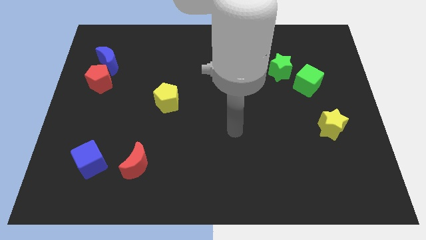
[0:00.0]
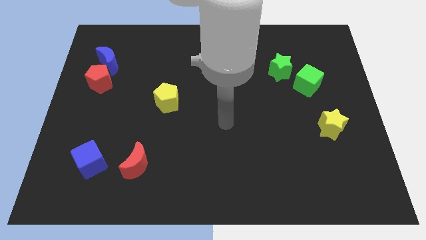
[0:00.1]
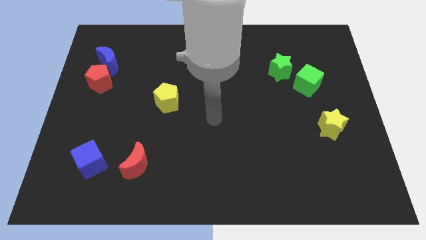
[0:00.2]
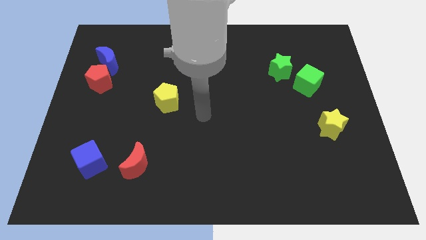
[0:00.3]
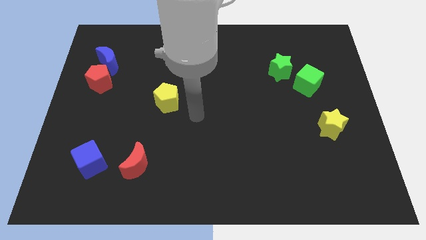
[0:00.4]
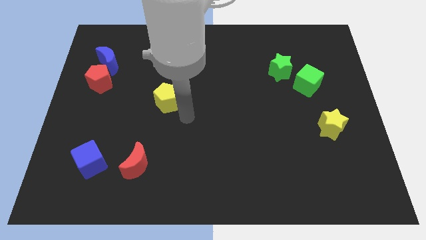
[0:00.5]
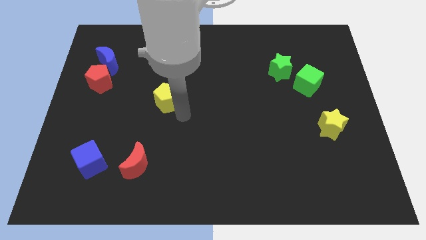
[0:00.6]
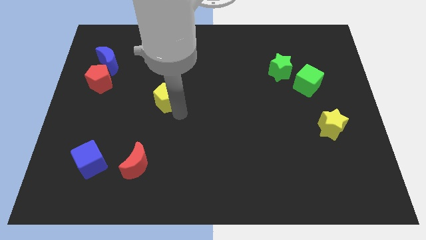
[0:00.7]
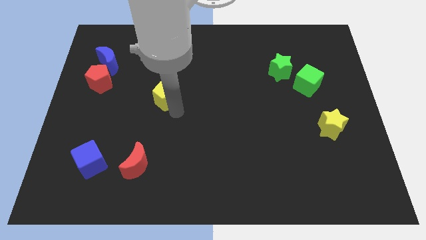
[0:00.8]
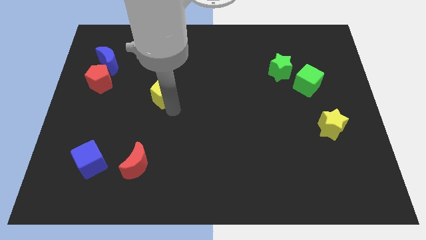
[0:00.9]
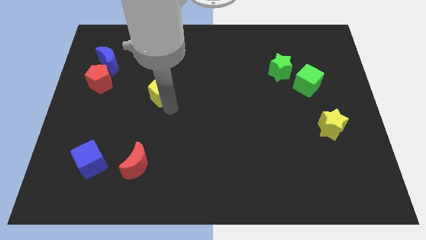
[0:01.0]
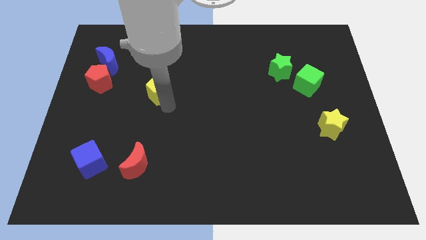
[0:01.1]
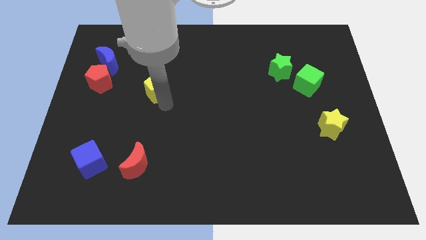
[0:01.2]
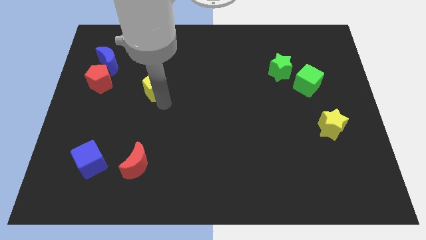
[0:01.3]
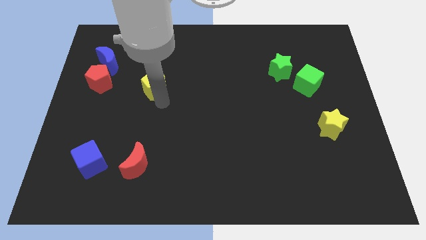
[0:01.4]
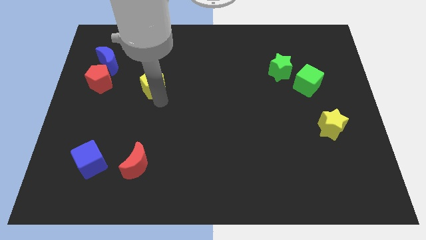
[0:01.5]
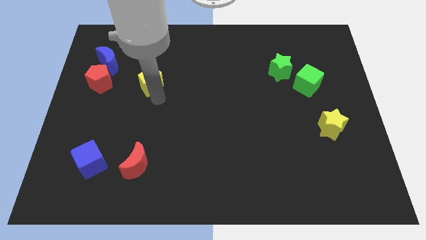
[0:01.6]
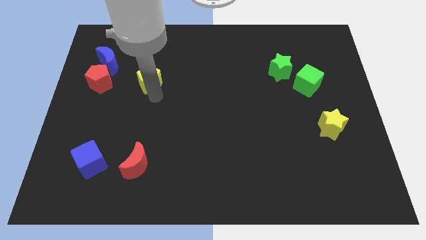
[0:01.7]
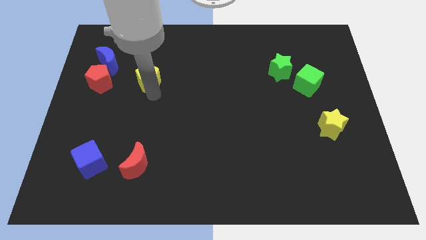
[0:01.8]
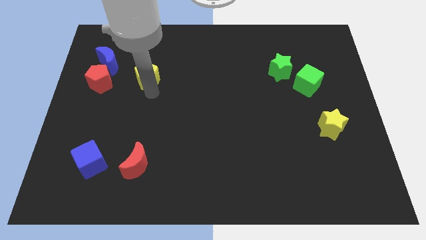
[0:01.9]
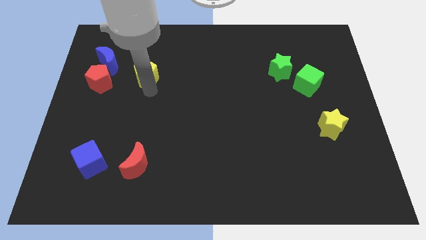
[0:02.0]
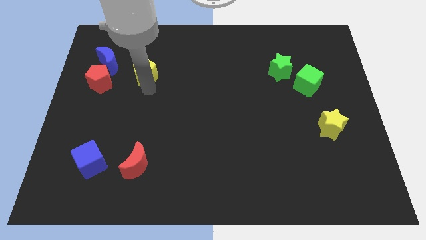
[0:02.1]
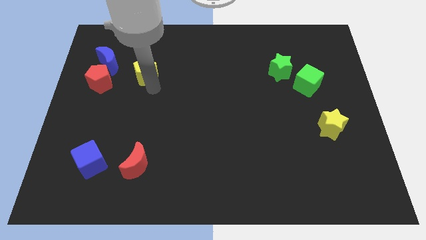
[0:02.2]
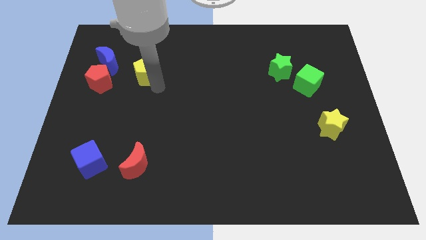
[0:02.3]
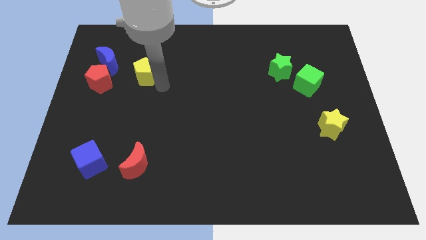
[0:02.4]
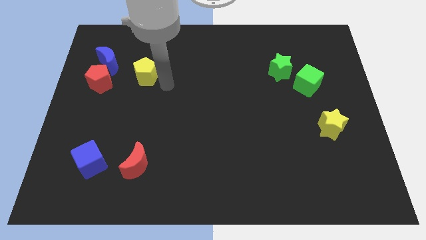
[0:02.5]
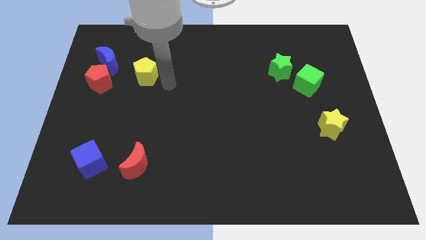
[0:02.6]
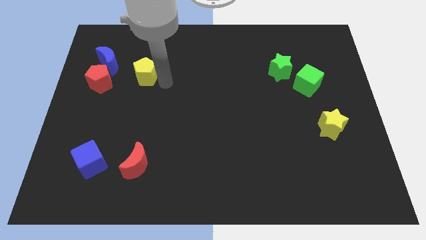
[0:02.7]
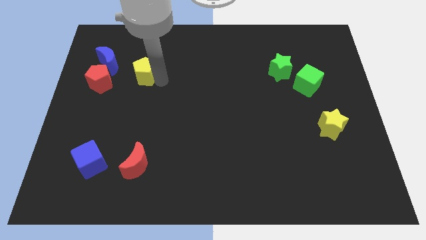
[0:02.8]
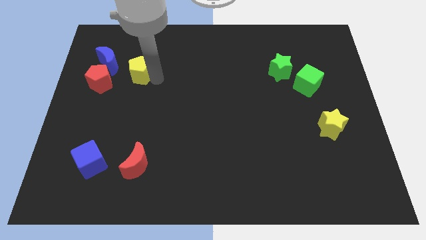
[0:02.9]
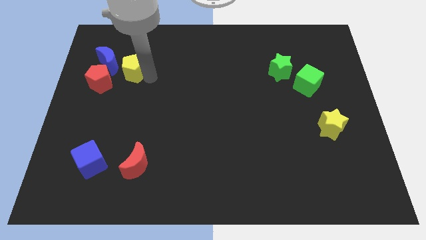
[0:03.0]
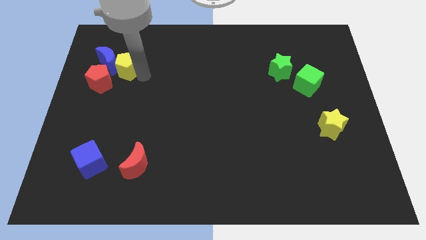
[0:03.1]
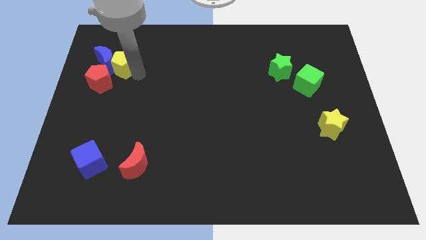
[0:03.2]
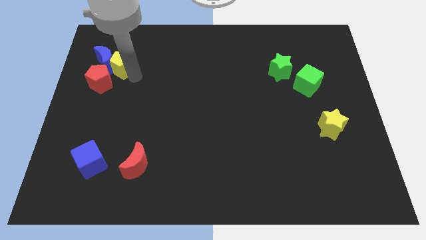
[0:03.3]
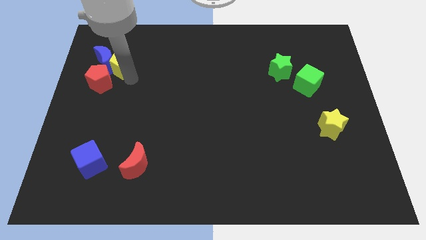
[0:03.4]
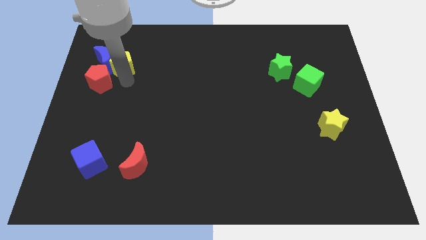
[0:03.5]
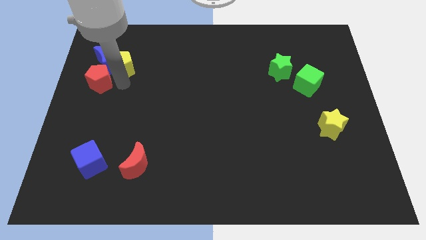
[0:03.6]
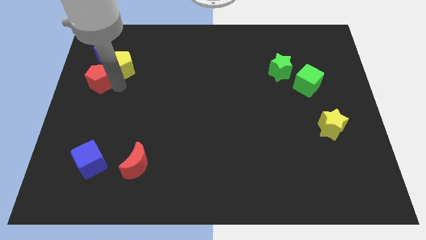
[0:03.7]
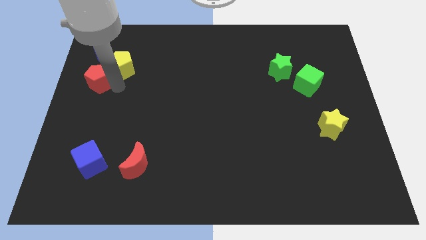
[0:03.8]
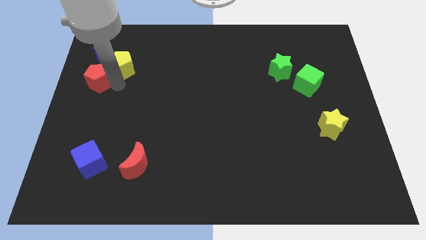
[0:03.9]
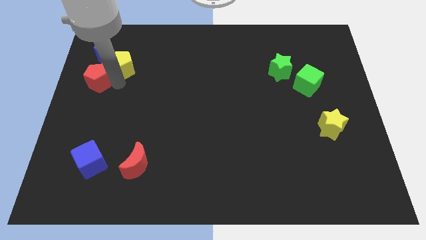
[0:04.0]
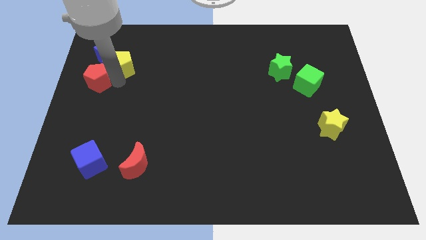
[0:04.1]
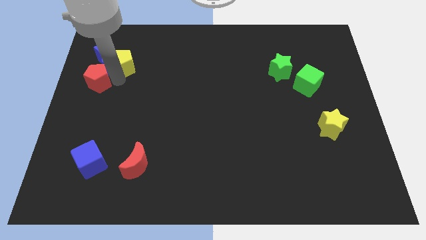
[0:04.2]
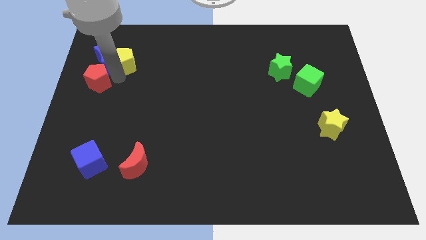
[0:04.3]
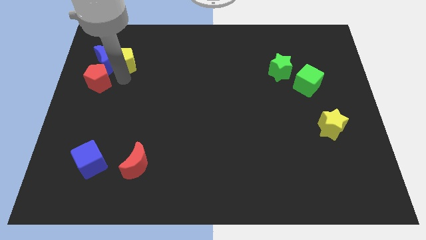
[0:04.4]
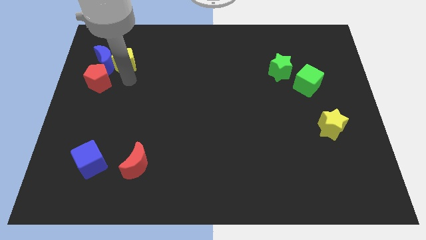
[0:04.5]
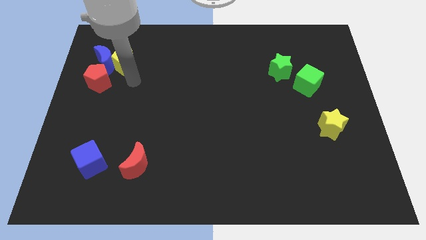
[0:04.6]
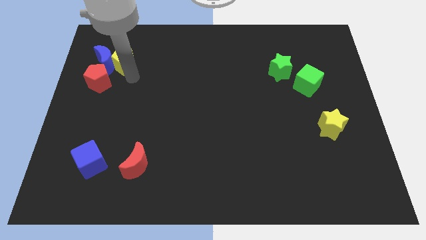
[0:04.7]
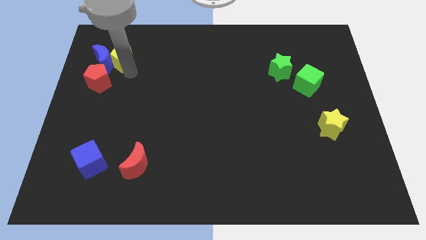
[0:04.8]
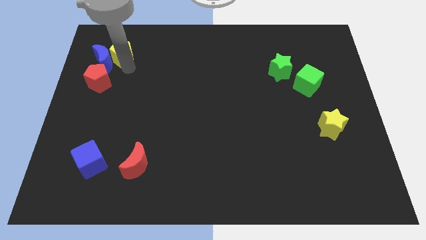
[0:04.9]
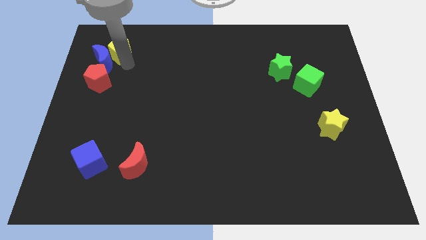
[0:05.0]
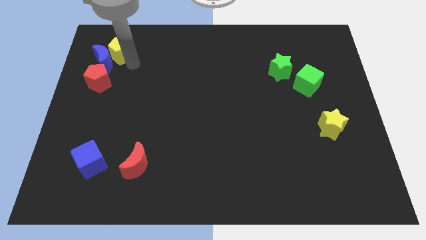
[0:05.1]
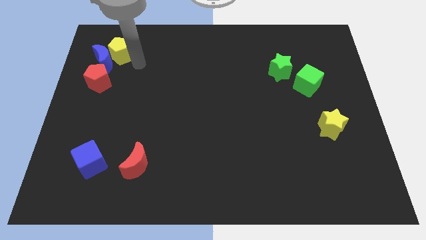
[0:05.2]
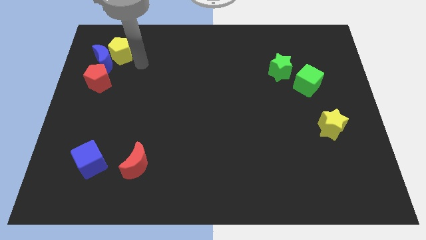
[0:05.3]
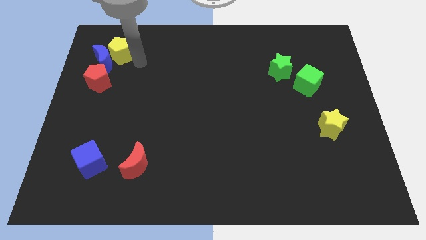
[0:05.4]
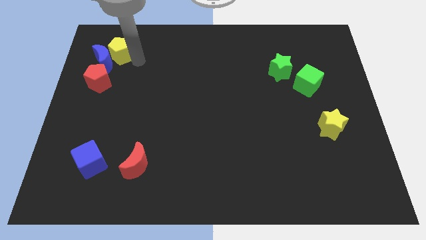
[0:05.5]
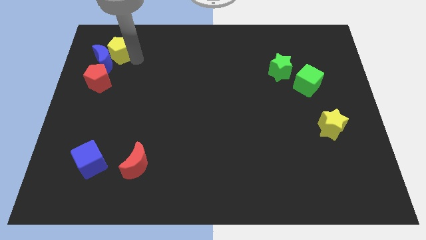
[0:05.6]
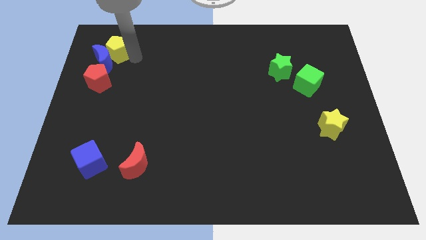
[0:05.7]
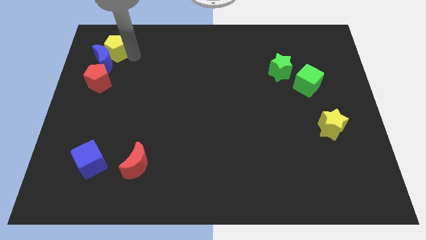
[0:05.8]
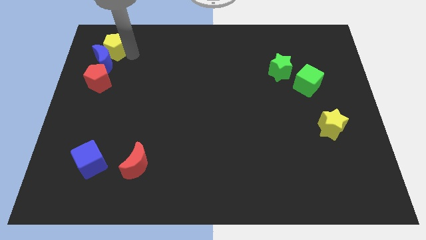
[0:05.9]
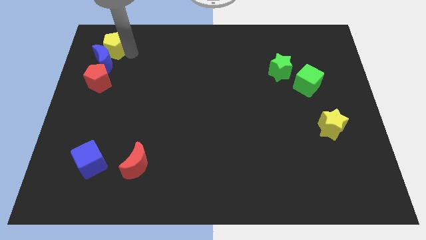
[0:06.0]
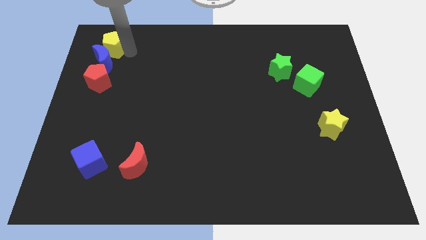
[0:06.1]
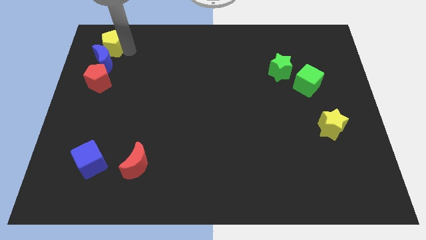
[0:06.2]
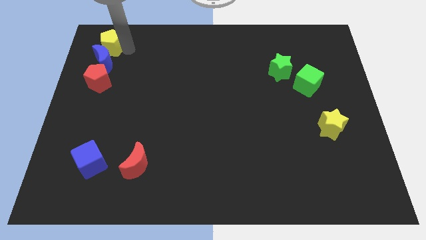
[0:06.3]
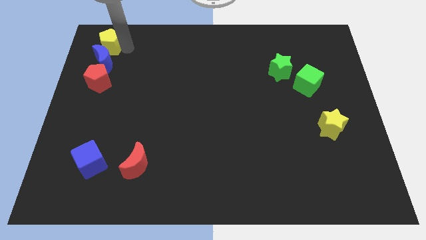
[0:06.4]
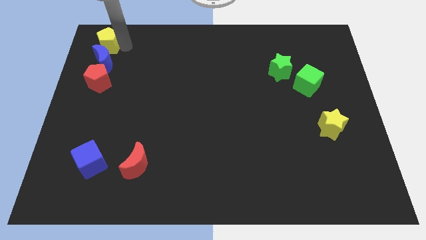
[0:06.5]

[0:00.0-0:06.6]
put the yellow pentagon to the top left corner
